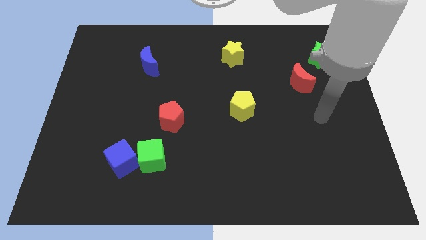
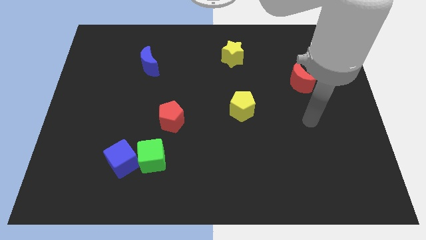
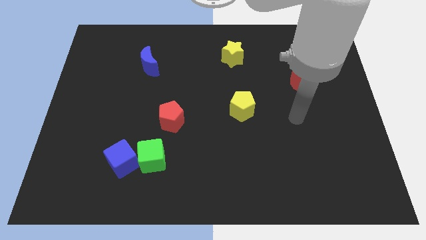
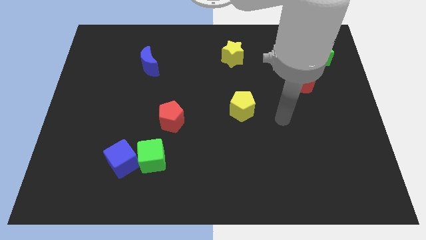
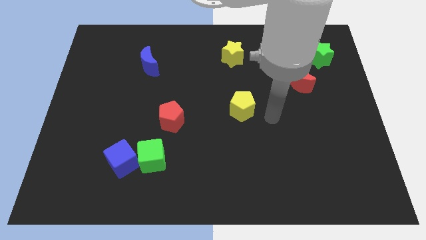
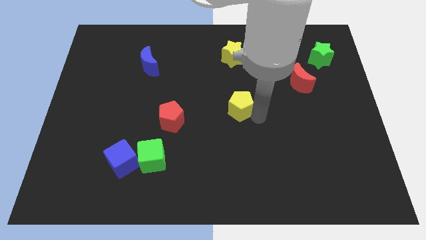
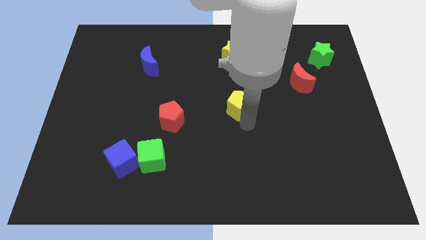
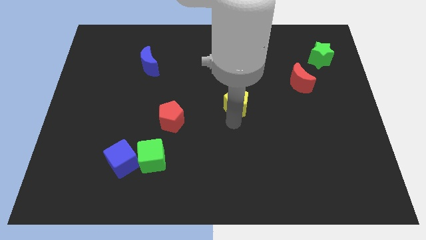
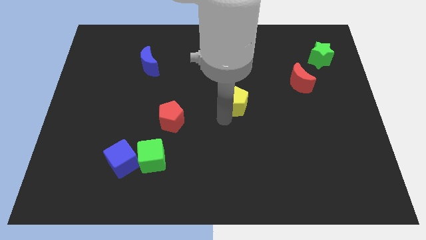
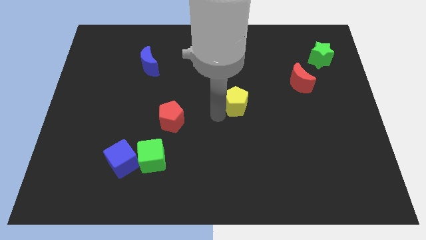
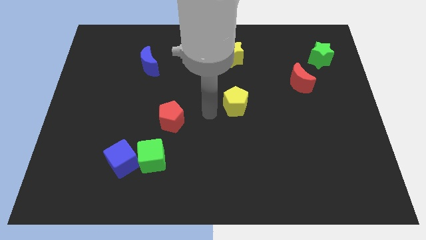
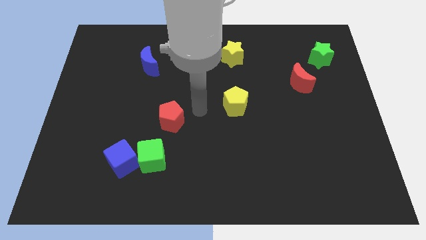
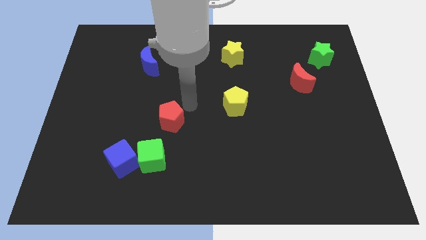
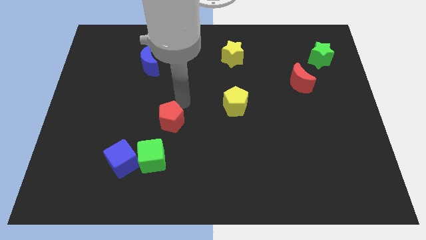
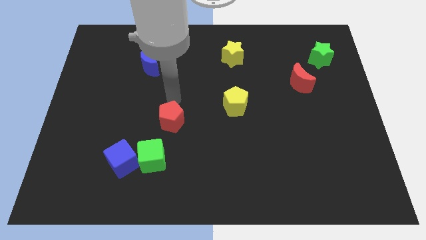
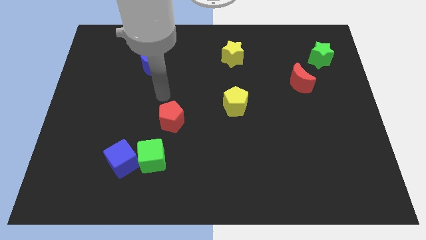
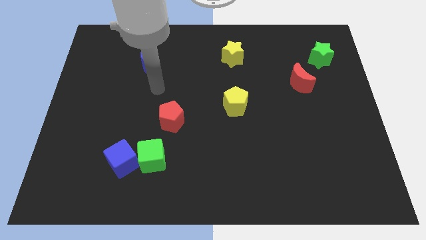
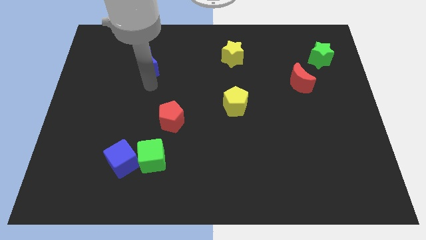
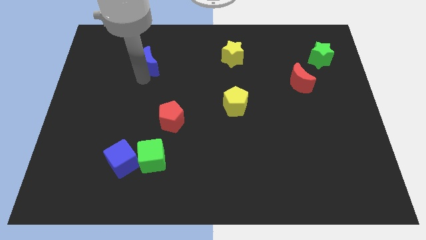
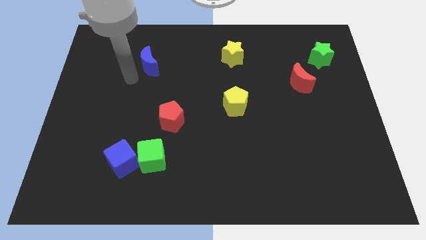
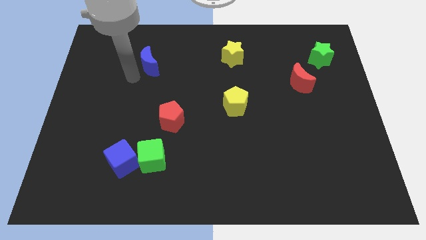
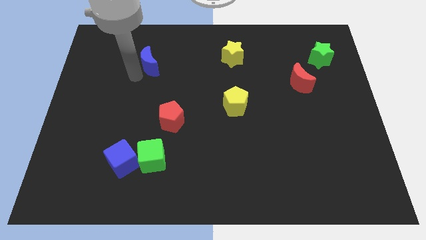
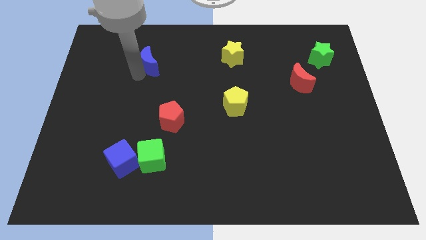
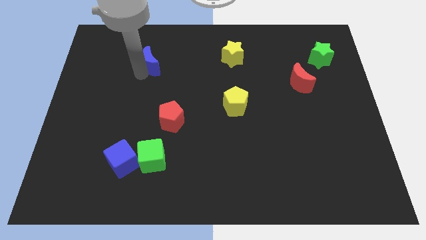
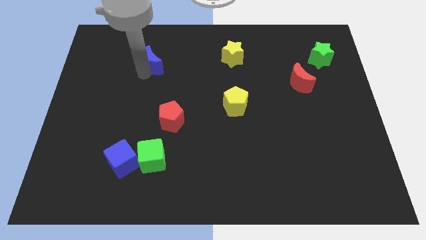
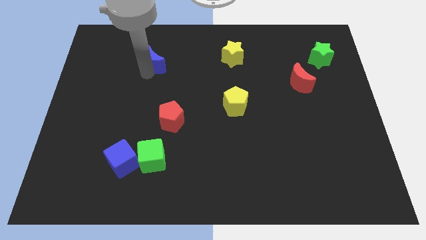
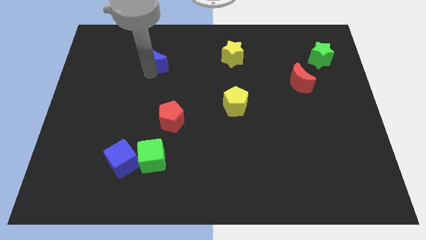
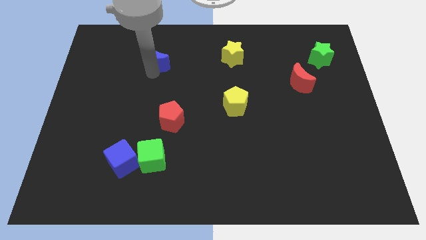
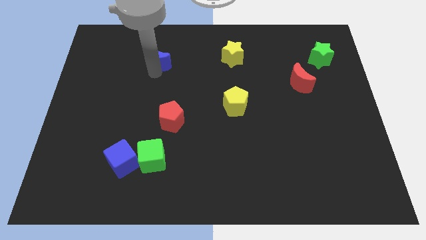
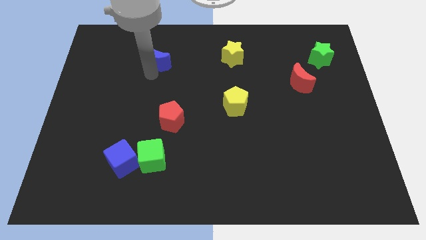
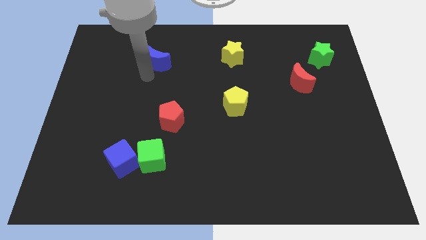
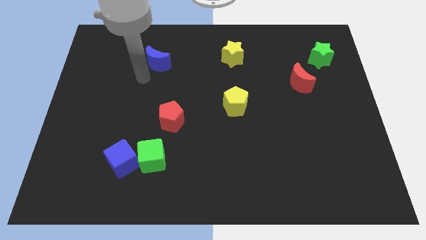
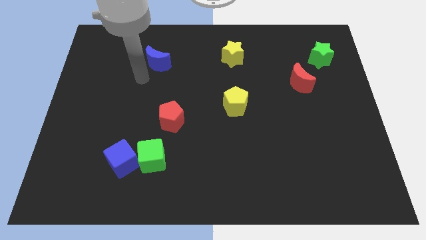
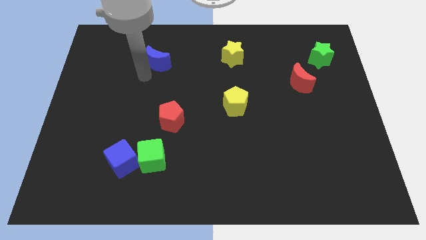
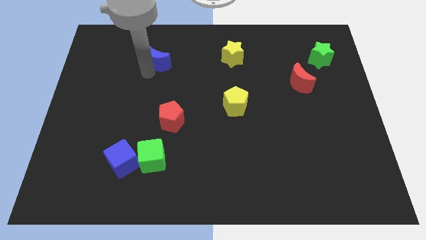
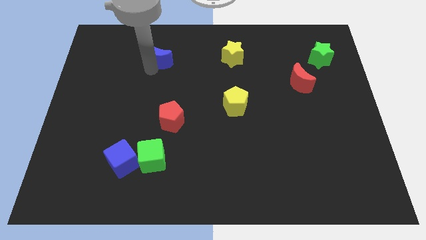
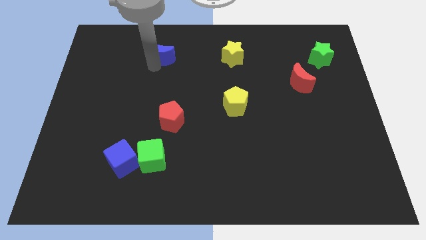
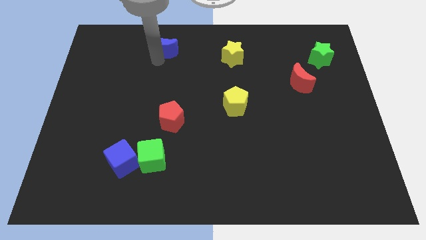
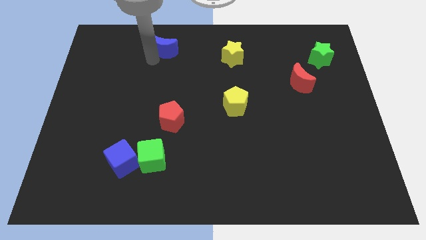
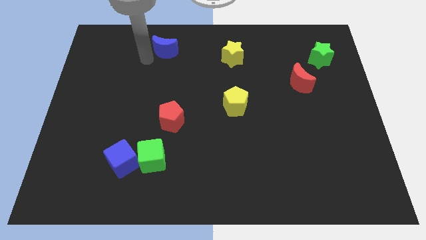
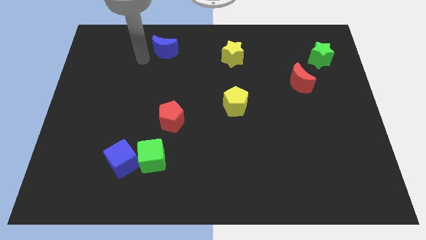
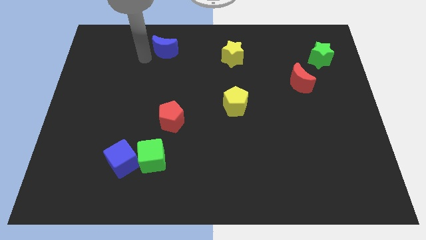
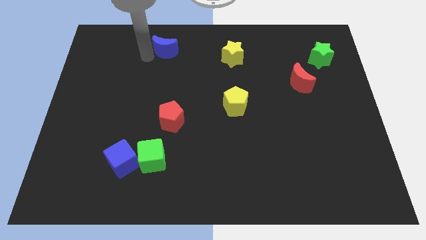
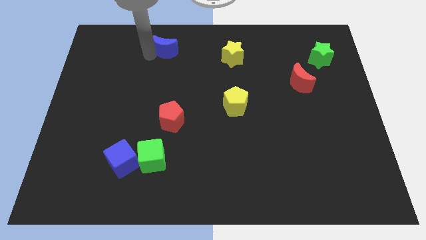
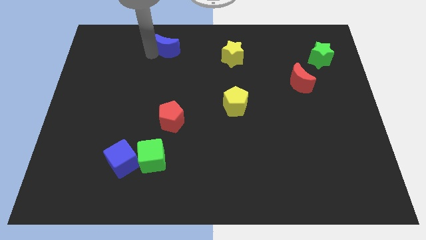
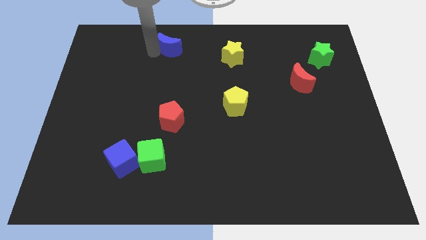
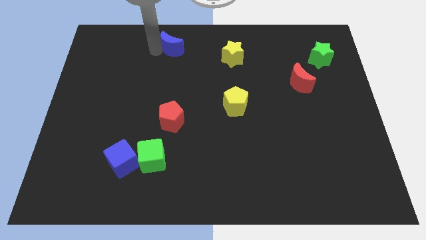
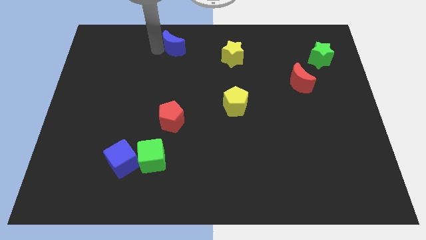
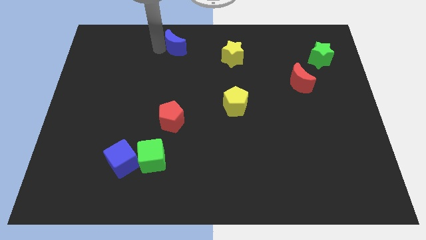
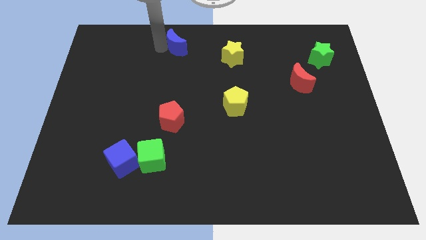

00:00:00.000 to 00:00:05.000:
move the blue moon to the top

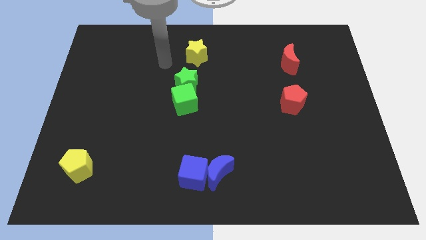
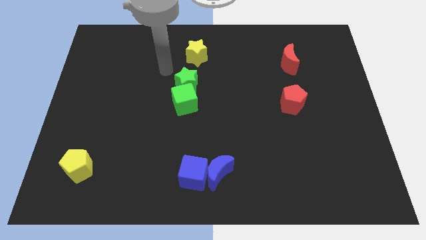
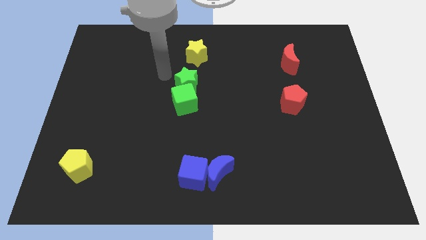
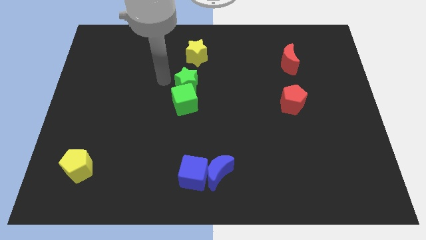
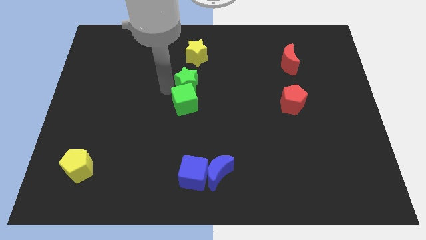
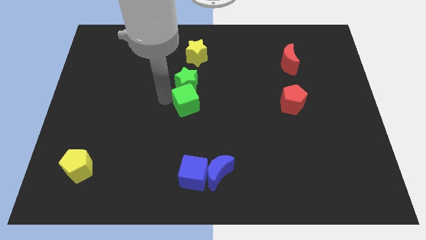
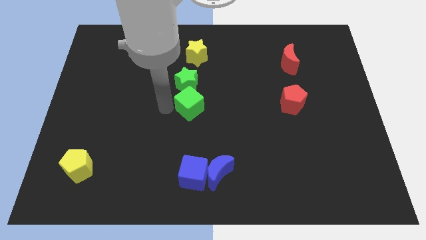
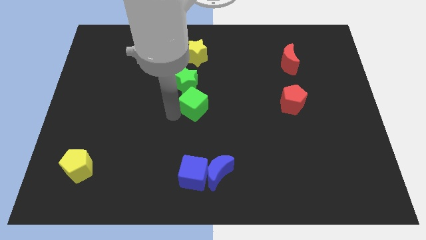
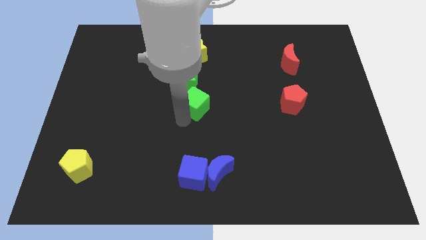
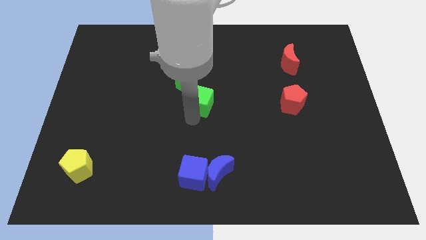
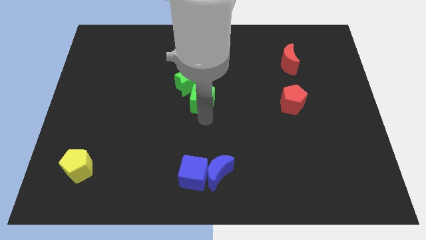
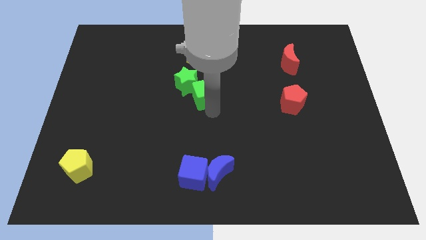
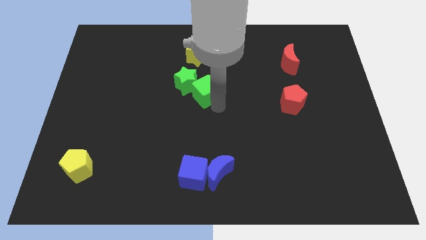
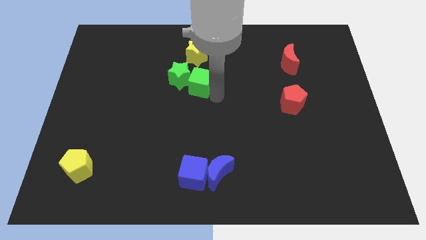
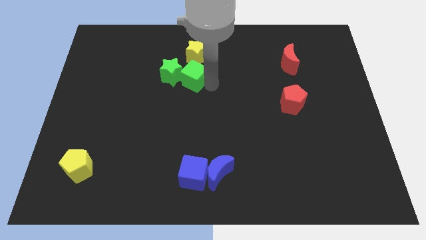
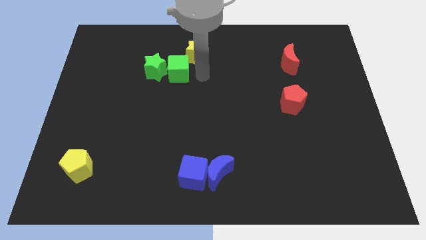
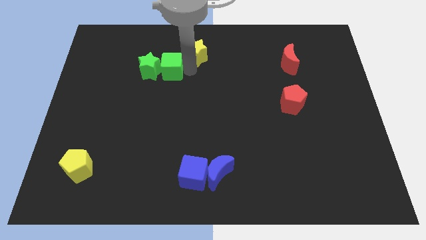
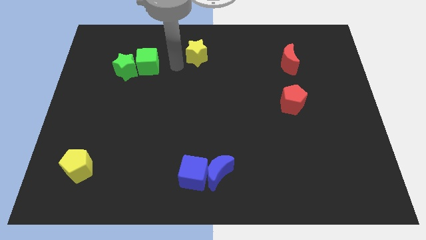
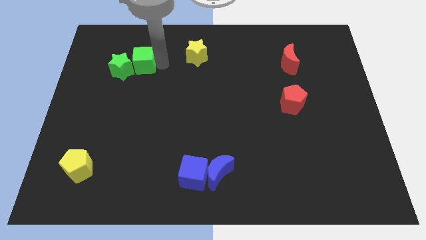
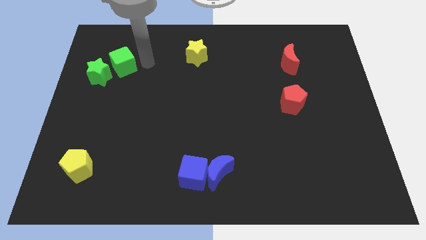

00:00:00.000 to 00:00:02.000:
put the green star to the center left
